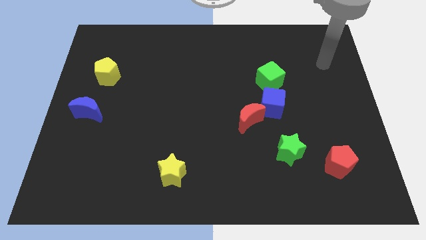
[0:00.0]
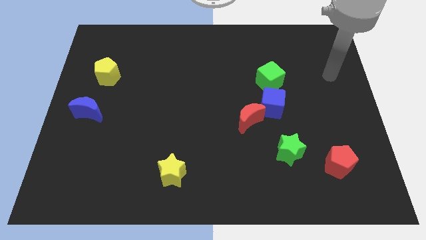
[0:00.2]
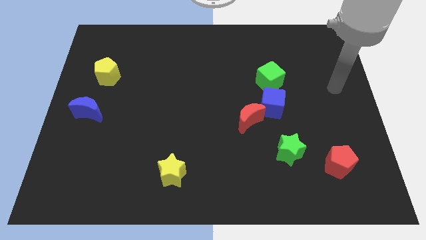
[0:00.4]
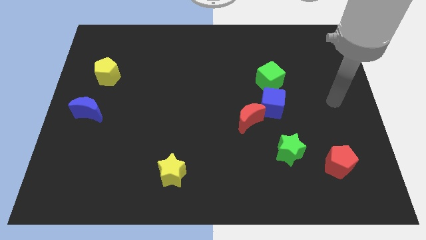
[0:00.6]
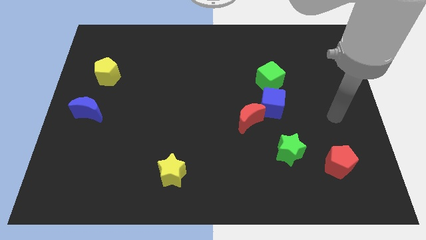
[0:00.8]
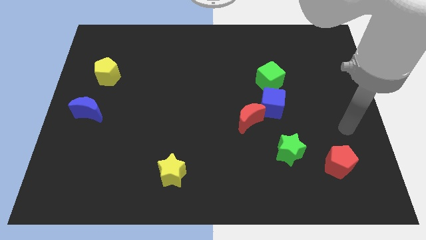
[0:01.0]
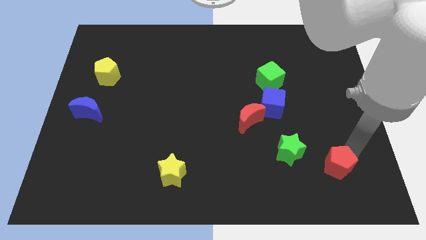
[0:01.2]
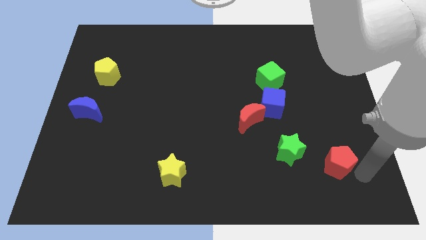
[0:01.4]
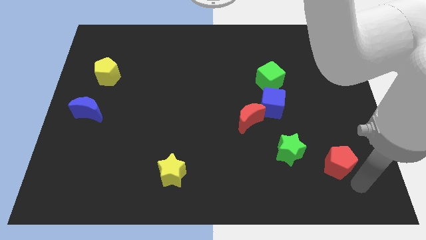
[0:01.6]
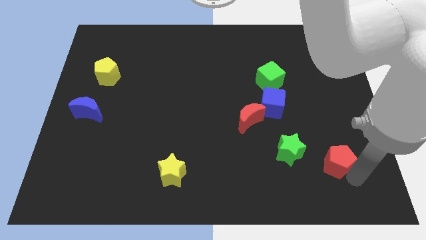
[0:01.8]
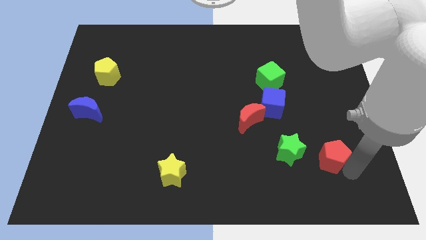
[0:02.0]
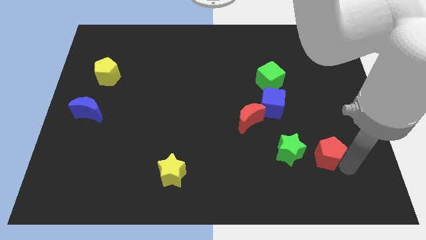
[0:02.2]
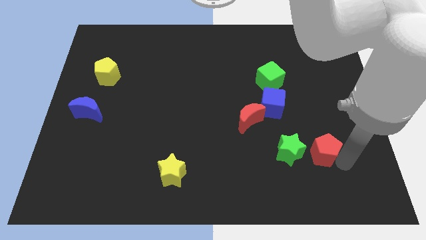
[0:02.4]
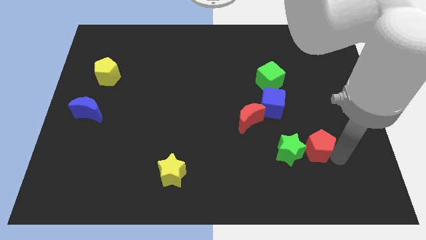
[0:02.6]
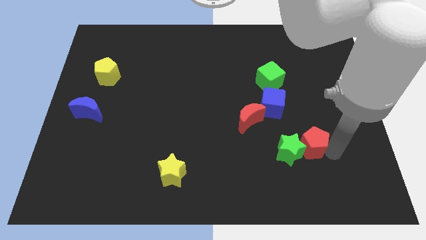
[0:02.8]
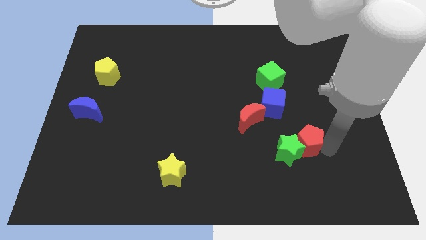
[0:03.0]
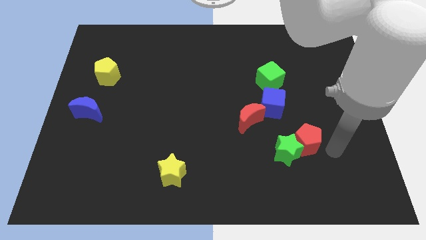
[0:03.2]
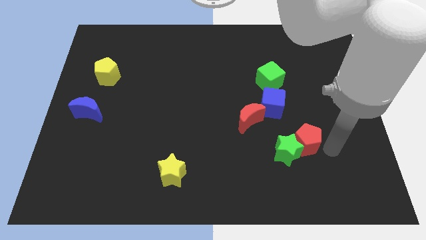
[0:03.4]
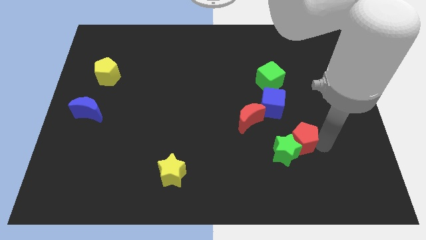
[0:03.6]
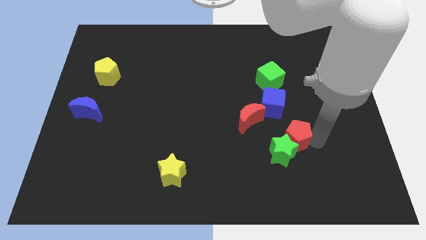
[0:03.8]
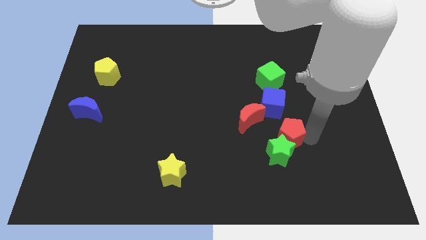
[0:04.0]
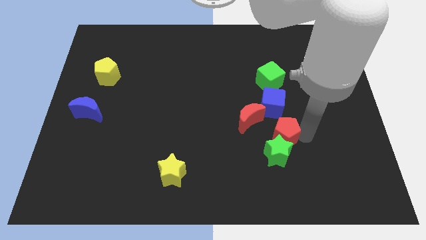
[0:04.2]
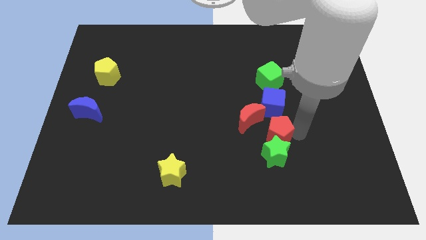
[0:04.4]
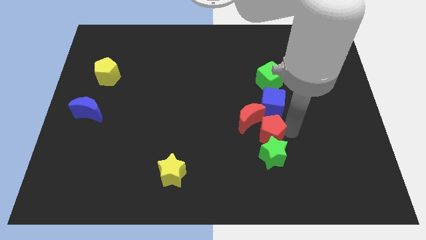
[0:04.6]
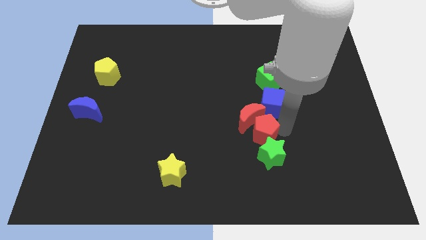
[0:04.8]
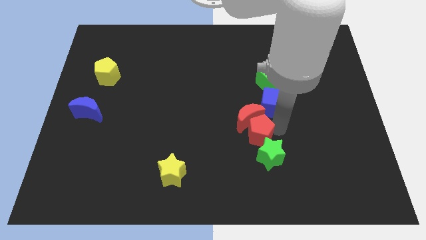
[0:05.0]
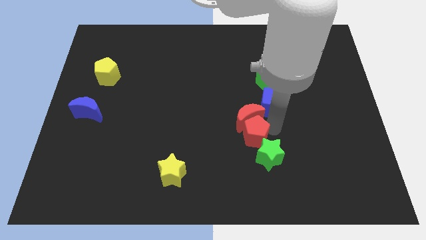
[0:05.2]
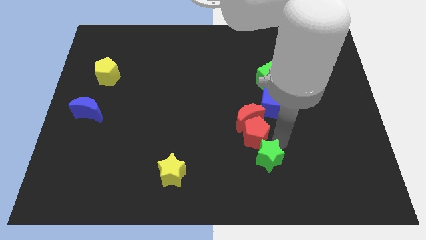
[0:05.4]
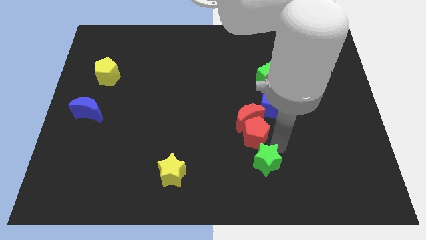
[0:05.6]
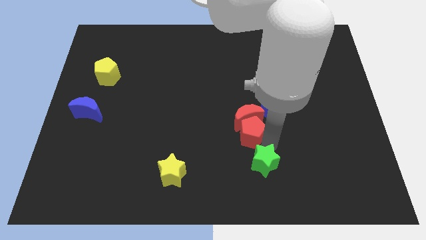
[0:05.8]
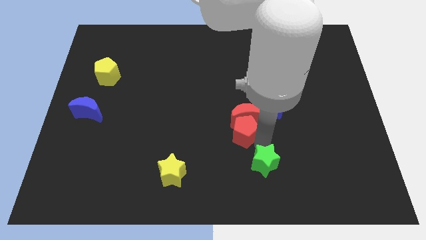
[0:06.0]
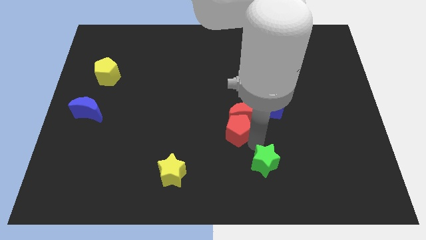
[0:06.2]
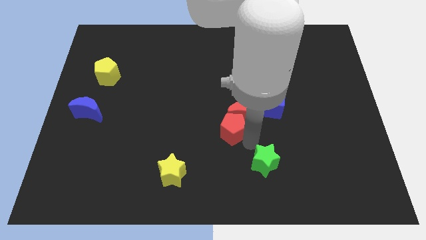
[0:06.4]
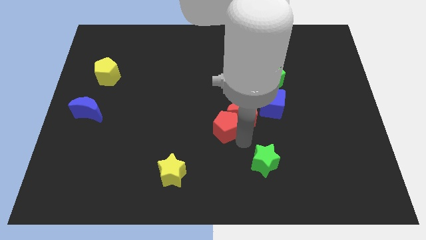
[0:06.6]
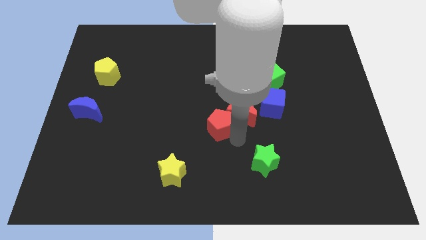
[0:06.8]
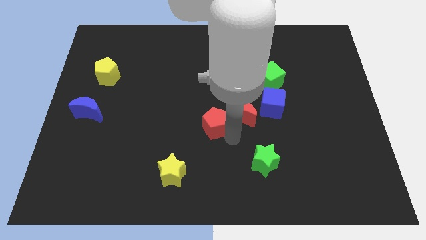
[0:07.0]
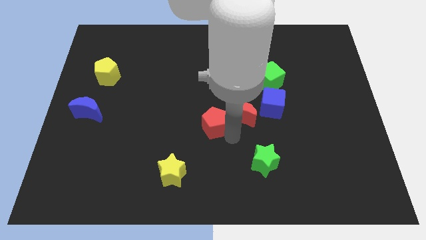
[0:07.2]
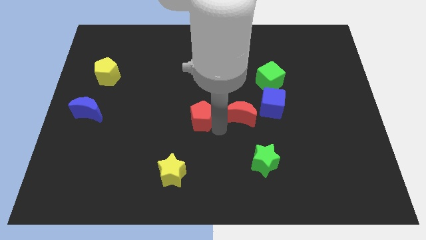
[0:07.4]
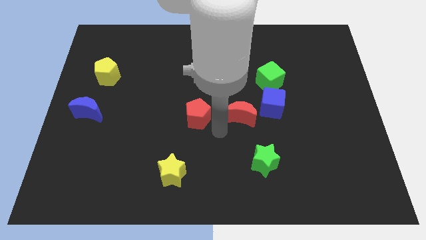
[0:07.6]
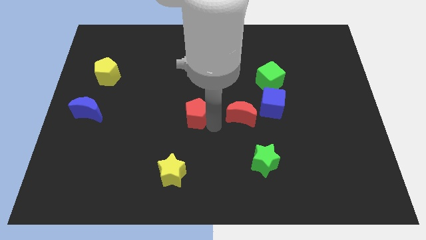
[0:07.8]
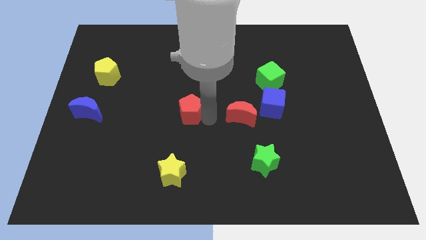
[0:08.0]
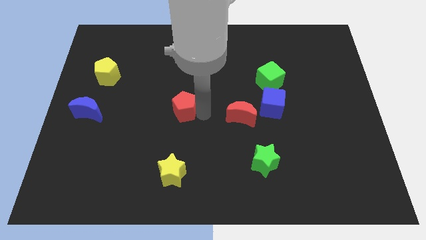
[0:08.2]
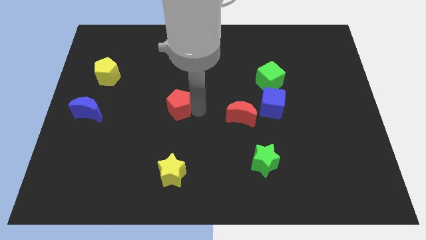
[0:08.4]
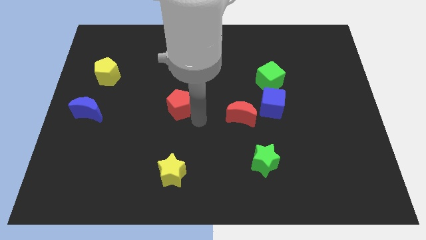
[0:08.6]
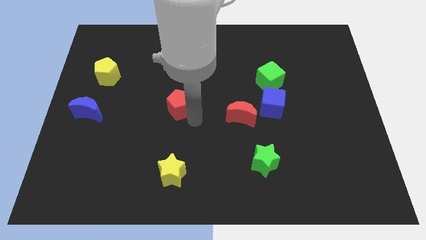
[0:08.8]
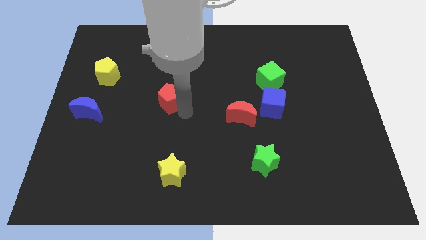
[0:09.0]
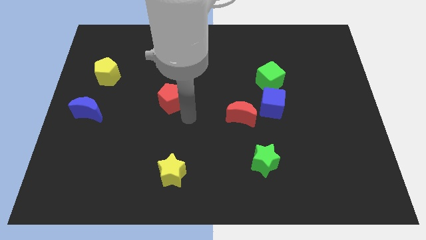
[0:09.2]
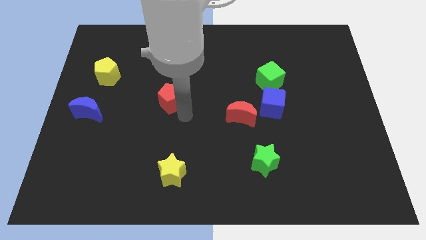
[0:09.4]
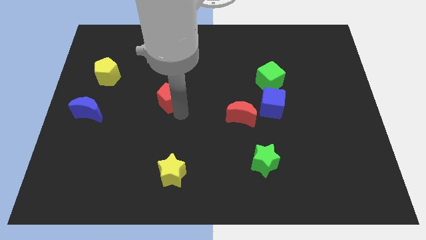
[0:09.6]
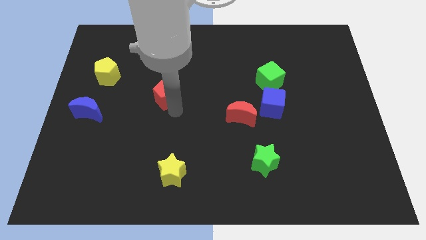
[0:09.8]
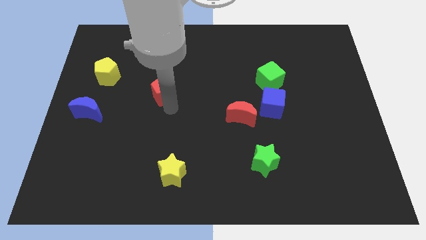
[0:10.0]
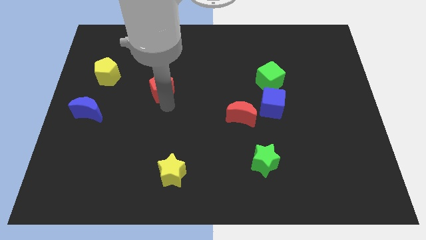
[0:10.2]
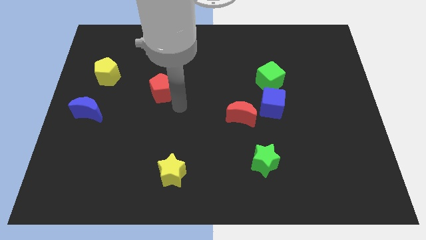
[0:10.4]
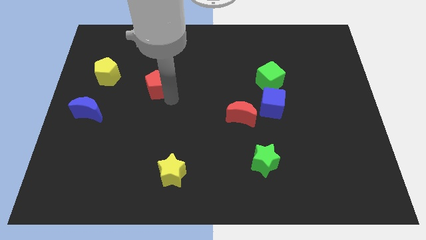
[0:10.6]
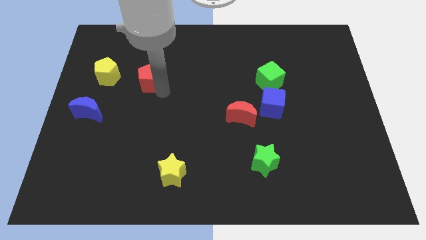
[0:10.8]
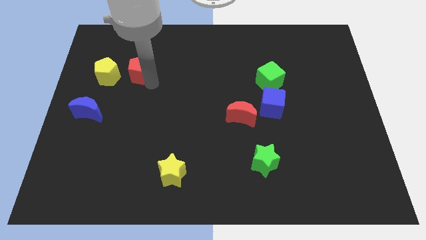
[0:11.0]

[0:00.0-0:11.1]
push the red pentagon diagonally up and to the right of the yellow pentagon

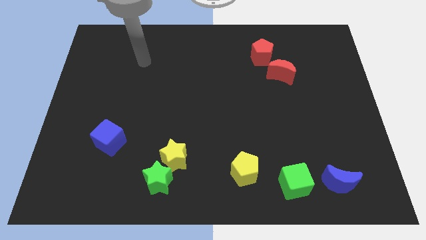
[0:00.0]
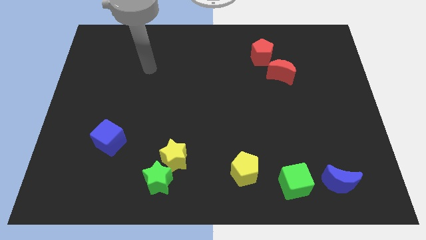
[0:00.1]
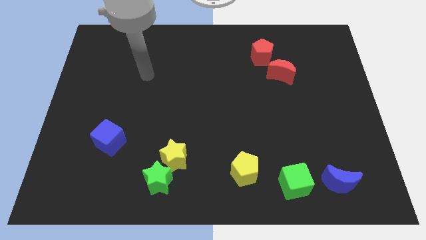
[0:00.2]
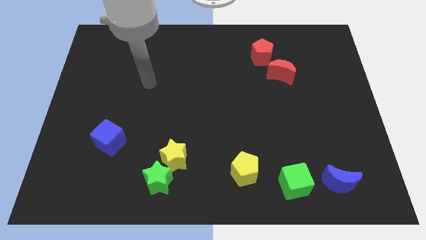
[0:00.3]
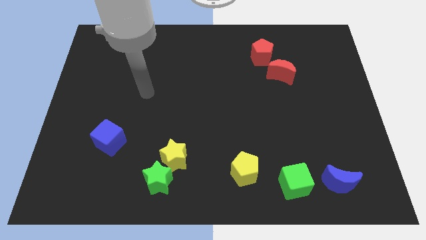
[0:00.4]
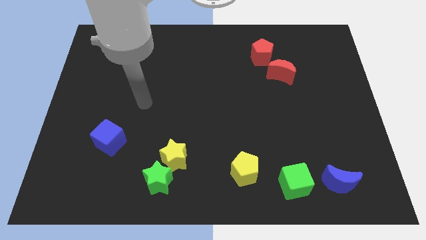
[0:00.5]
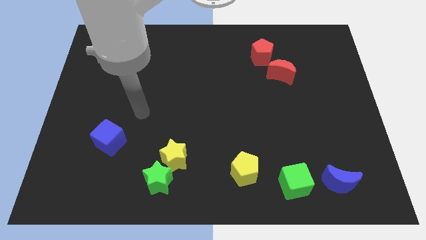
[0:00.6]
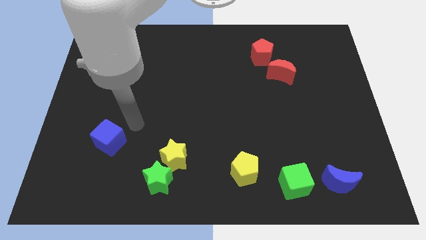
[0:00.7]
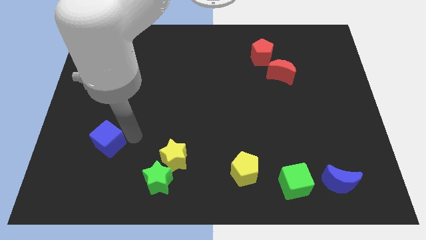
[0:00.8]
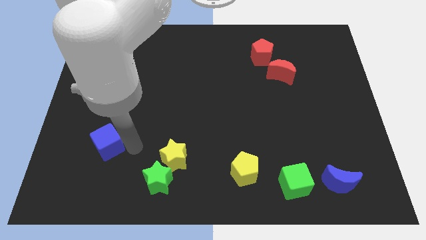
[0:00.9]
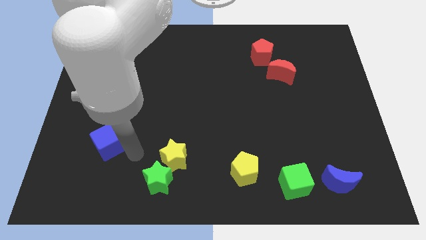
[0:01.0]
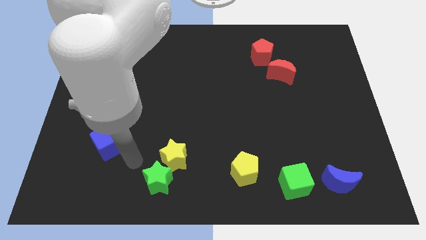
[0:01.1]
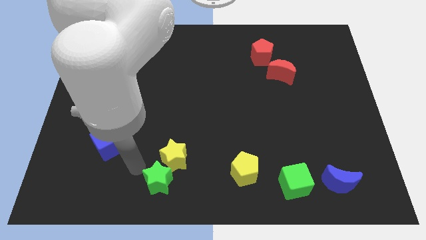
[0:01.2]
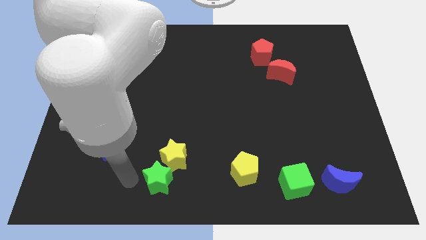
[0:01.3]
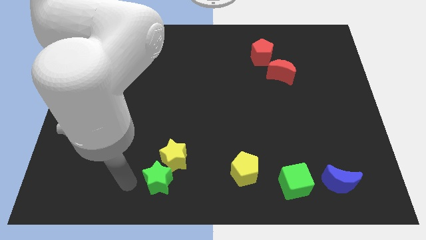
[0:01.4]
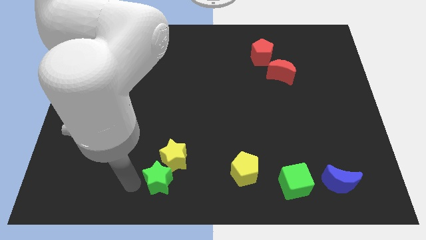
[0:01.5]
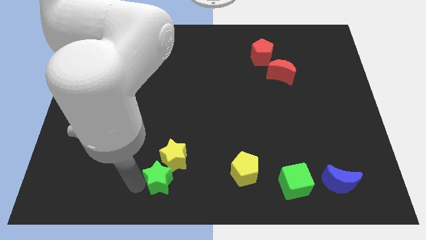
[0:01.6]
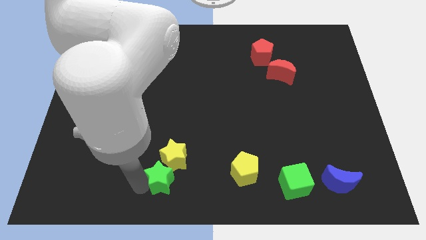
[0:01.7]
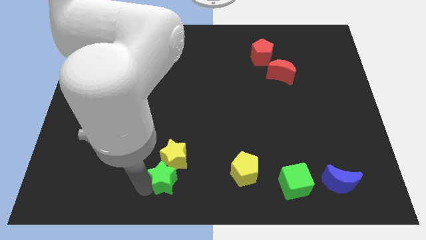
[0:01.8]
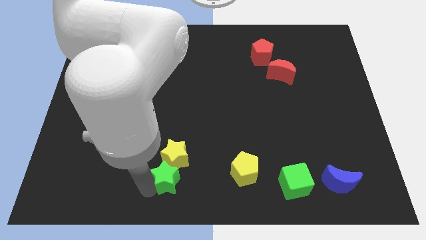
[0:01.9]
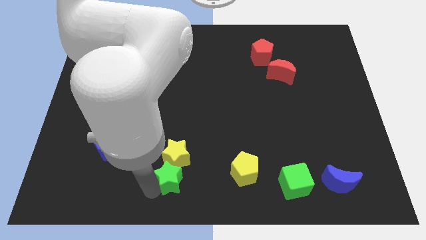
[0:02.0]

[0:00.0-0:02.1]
move the green star to the bottom right side of the yellow star
